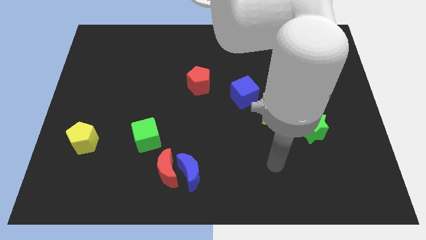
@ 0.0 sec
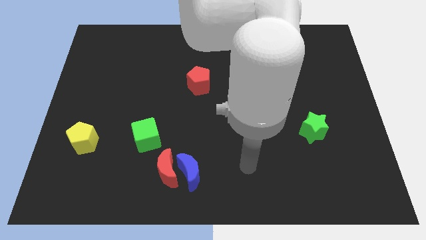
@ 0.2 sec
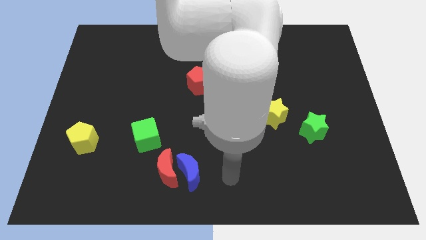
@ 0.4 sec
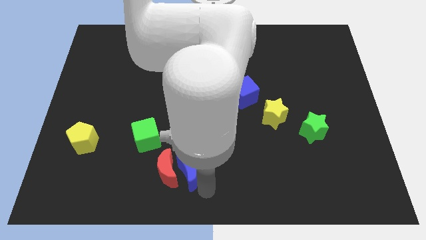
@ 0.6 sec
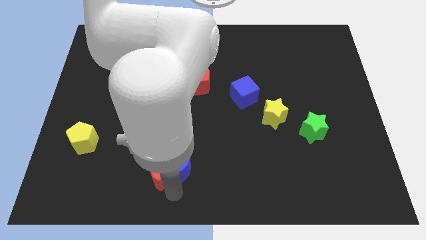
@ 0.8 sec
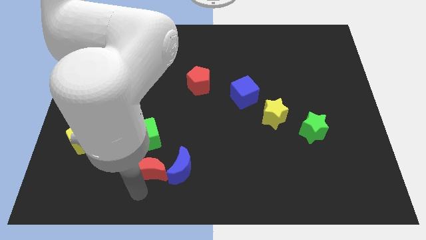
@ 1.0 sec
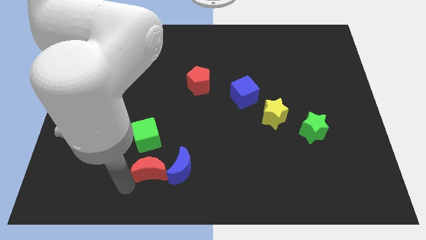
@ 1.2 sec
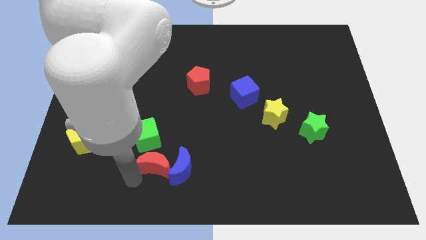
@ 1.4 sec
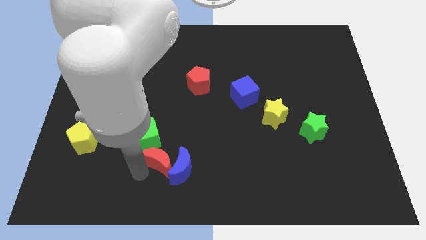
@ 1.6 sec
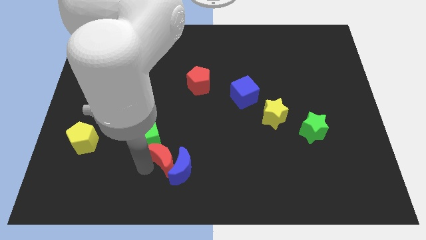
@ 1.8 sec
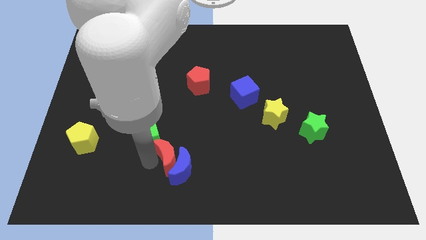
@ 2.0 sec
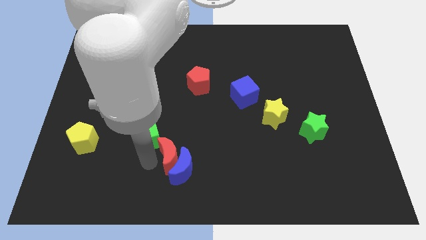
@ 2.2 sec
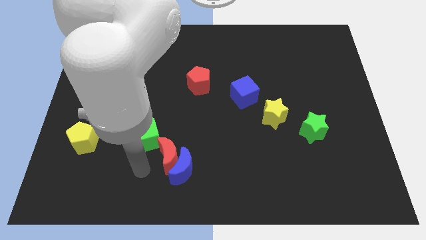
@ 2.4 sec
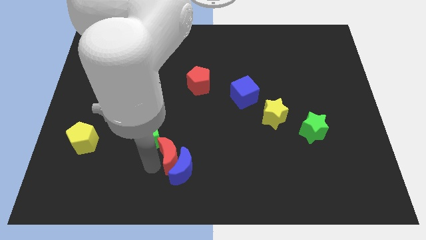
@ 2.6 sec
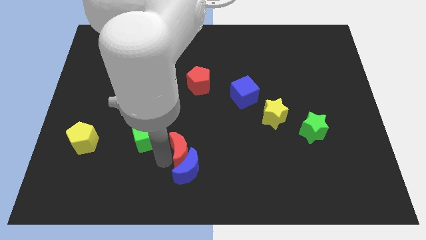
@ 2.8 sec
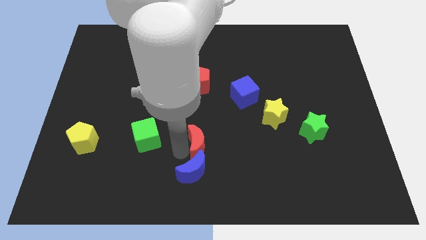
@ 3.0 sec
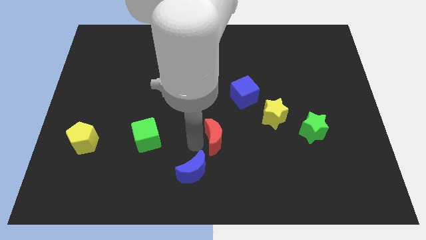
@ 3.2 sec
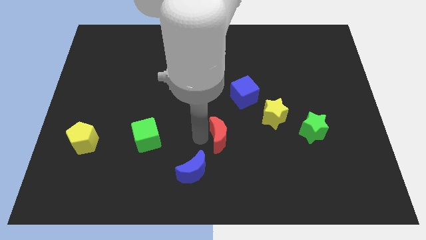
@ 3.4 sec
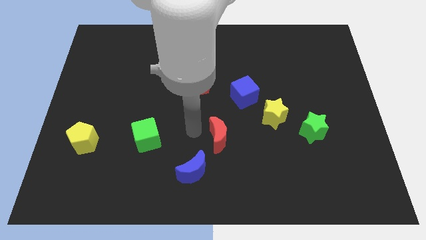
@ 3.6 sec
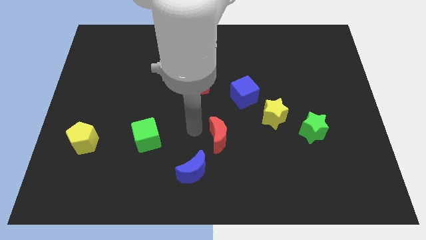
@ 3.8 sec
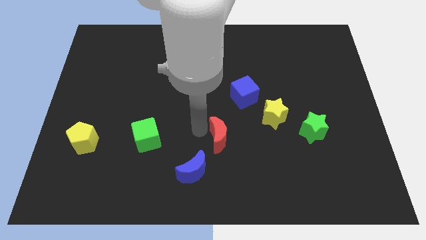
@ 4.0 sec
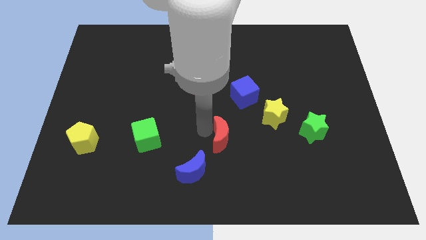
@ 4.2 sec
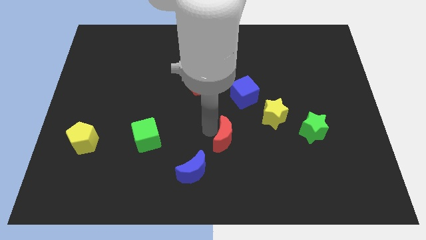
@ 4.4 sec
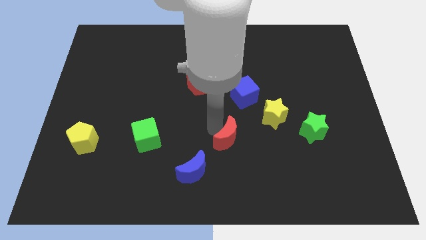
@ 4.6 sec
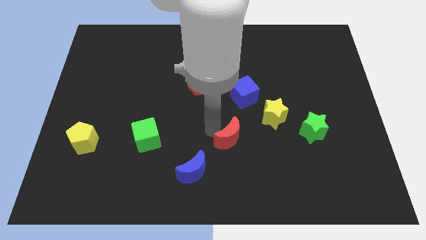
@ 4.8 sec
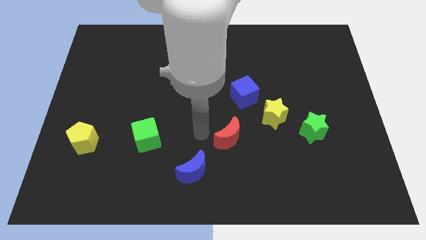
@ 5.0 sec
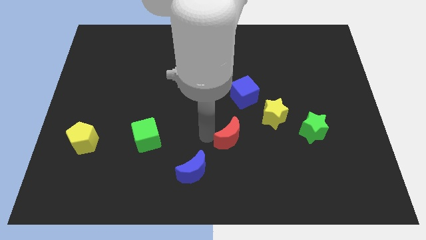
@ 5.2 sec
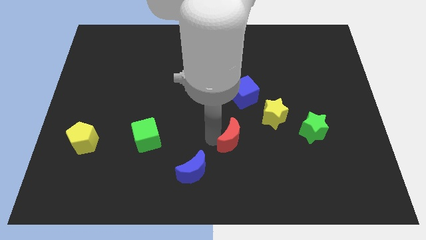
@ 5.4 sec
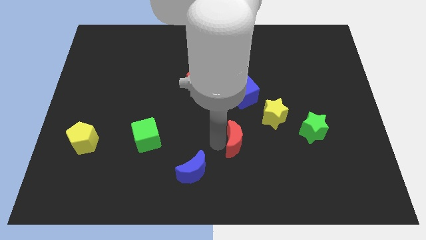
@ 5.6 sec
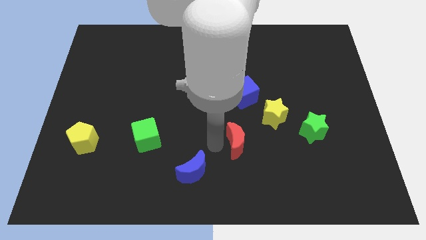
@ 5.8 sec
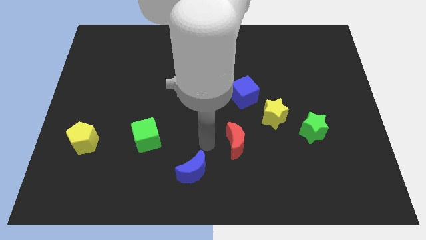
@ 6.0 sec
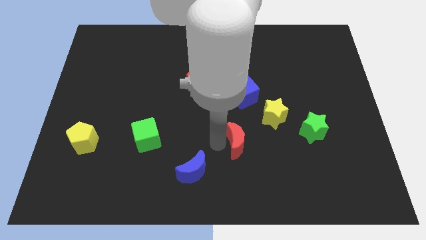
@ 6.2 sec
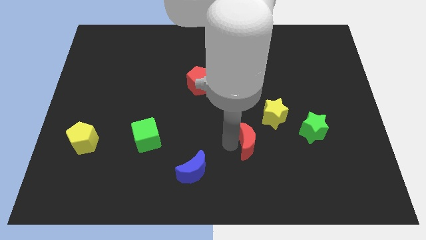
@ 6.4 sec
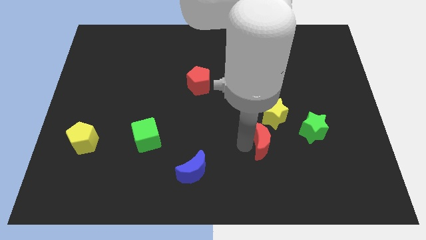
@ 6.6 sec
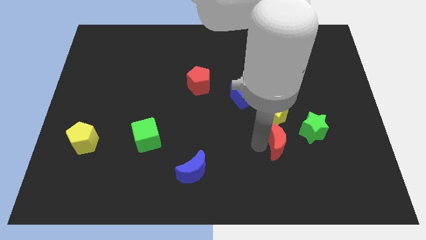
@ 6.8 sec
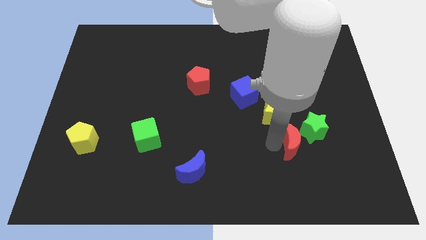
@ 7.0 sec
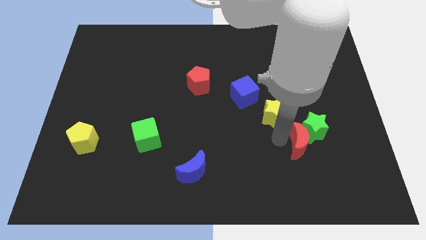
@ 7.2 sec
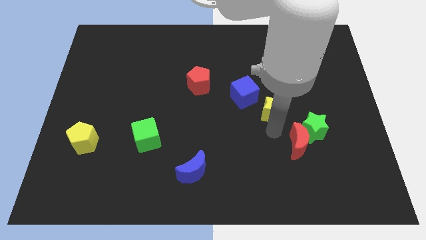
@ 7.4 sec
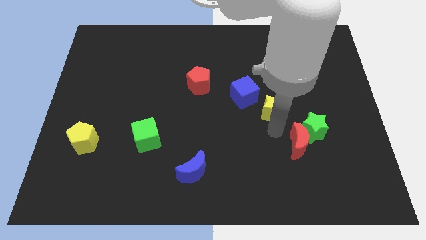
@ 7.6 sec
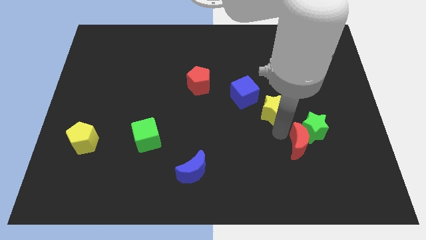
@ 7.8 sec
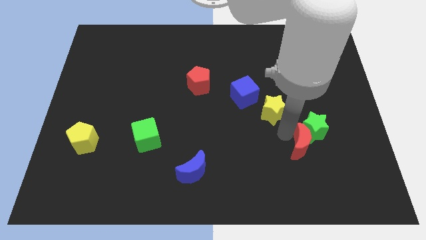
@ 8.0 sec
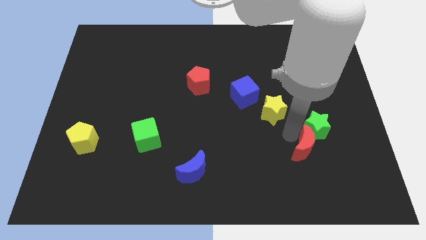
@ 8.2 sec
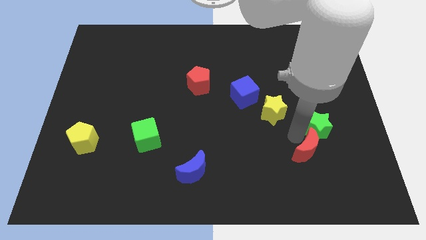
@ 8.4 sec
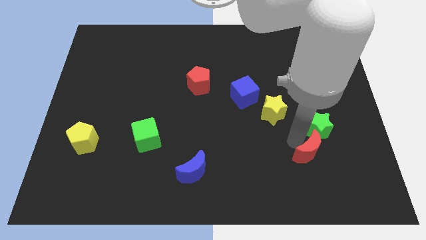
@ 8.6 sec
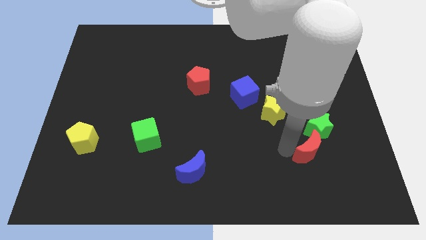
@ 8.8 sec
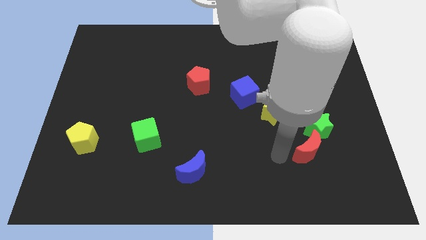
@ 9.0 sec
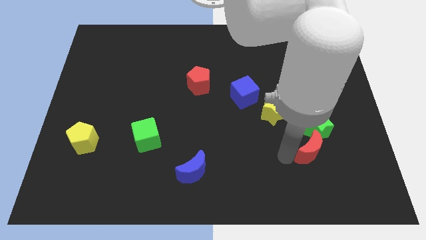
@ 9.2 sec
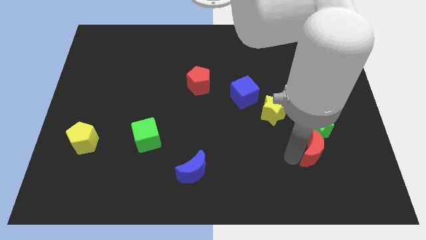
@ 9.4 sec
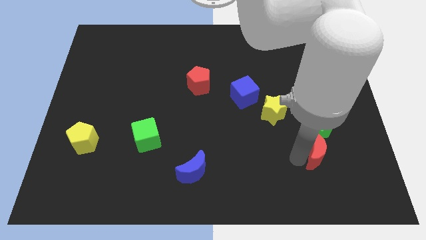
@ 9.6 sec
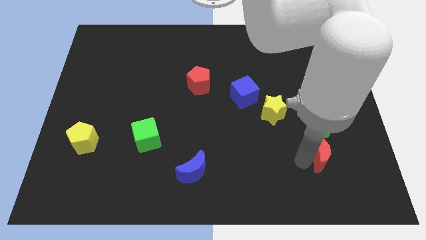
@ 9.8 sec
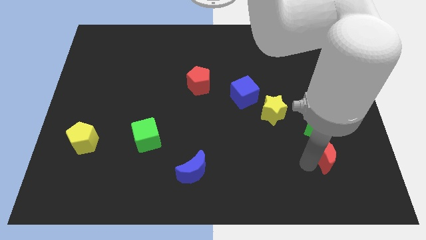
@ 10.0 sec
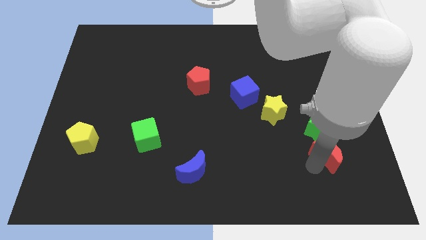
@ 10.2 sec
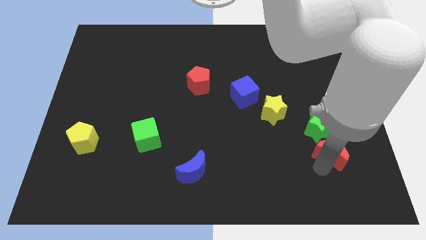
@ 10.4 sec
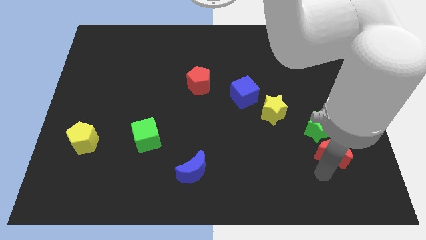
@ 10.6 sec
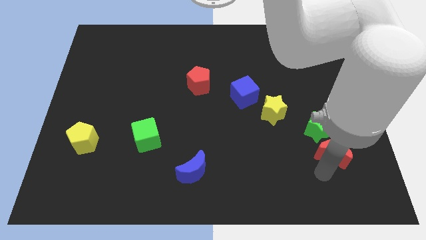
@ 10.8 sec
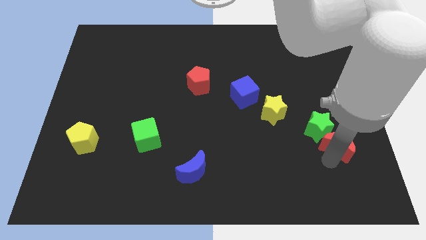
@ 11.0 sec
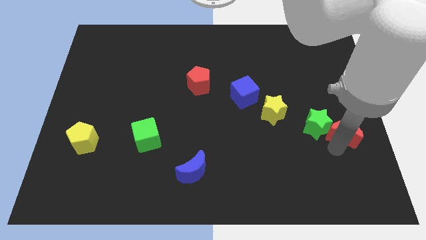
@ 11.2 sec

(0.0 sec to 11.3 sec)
push the red moon to the right side of the board

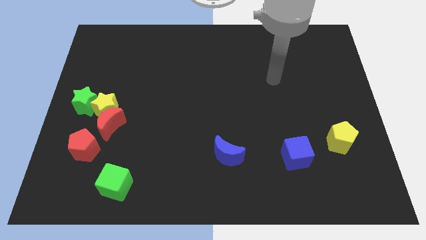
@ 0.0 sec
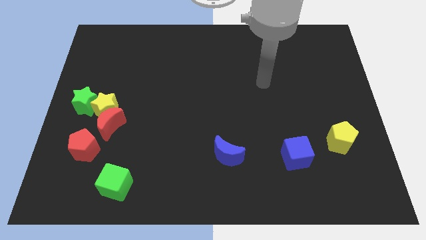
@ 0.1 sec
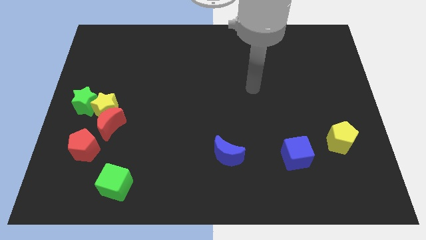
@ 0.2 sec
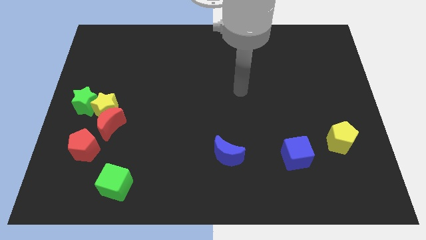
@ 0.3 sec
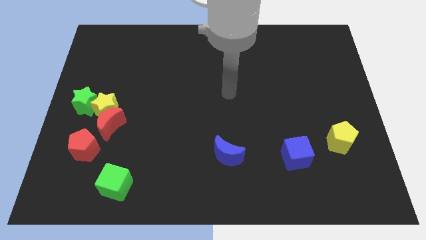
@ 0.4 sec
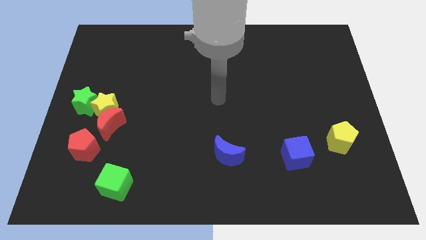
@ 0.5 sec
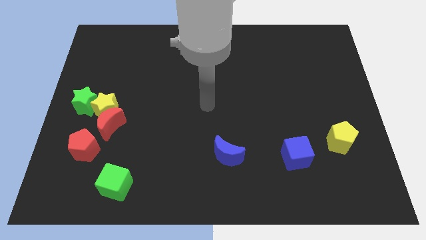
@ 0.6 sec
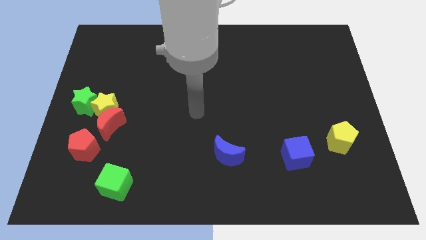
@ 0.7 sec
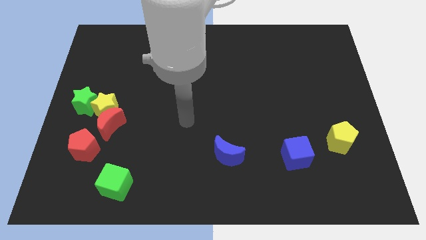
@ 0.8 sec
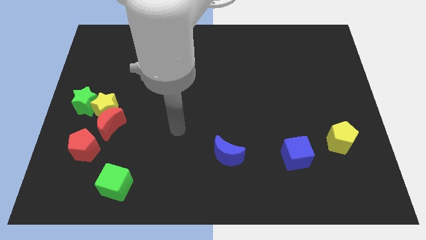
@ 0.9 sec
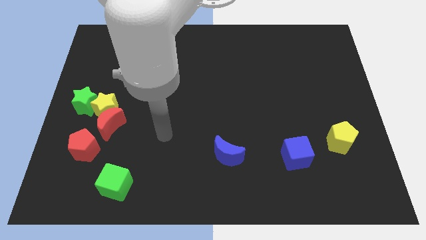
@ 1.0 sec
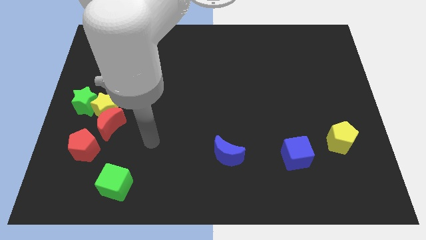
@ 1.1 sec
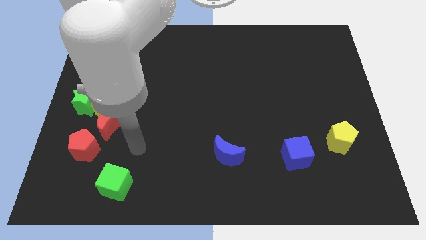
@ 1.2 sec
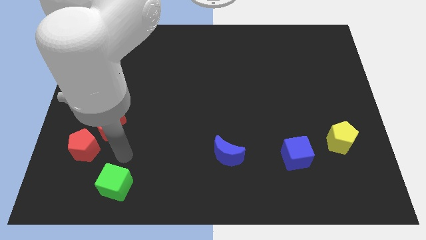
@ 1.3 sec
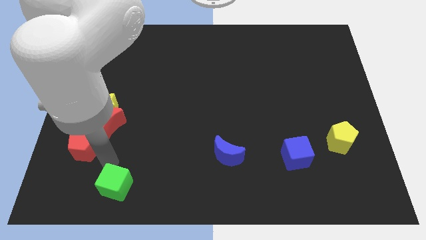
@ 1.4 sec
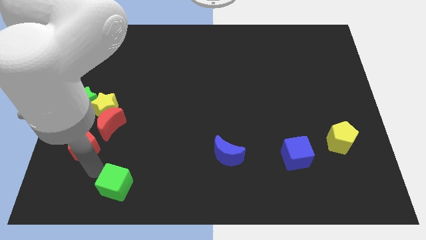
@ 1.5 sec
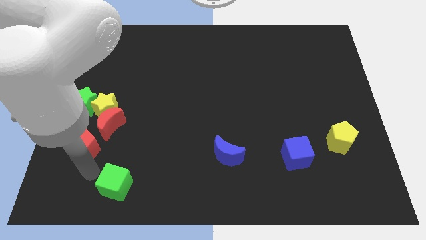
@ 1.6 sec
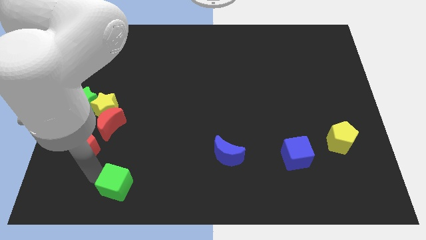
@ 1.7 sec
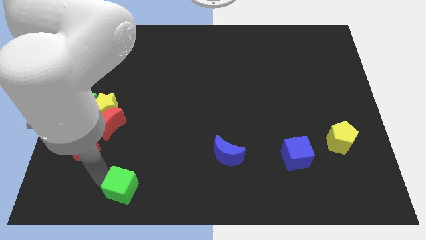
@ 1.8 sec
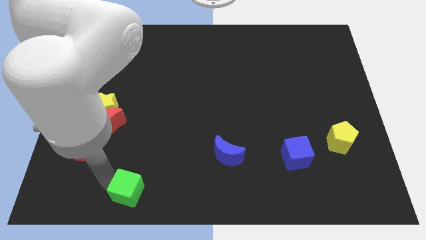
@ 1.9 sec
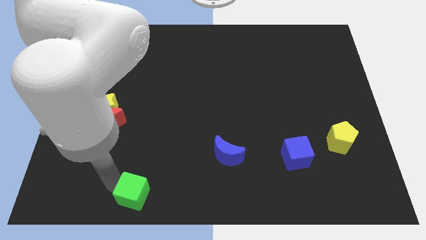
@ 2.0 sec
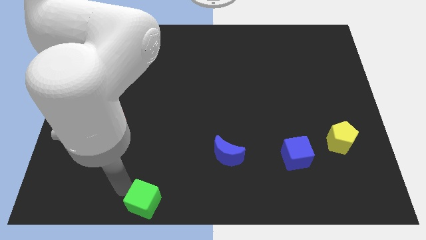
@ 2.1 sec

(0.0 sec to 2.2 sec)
move the green cube to the bottom side
